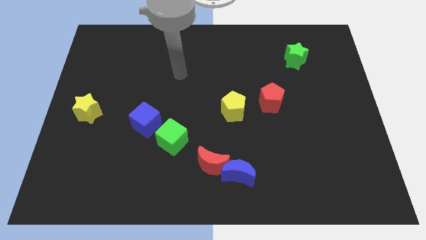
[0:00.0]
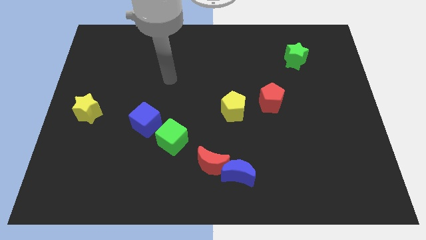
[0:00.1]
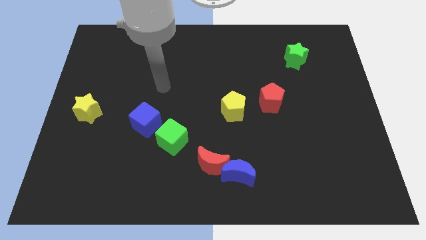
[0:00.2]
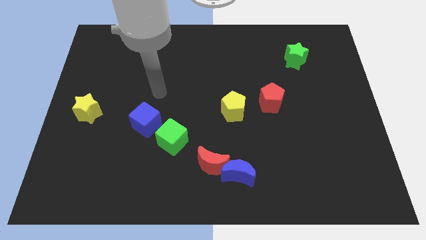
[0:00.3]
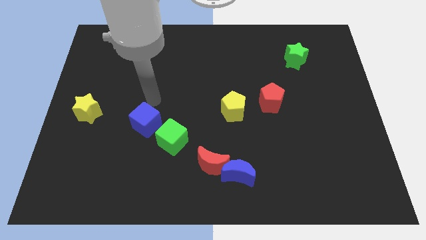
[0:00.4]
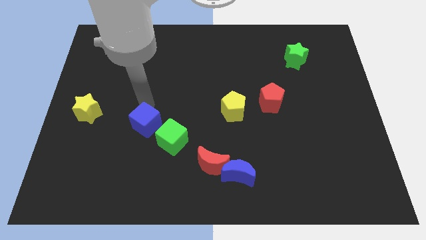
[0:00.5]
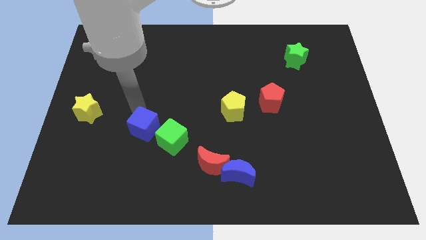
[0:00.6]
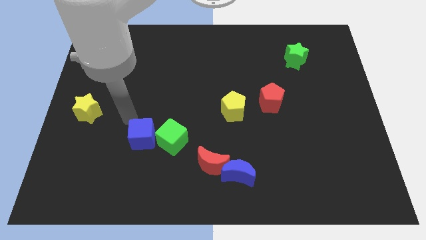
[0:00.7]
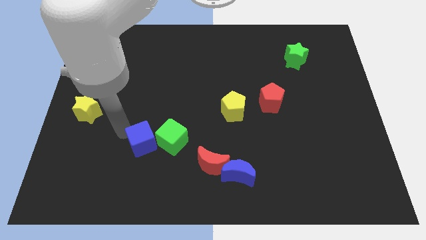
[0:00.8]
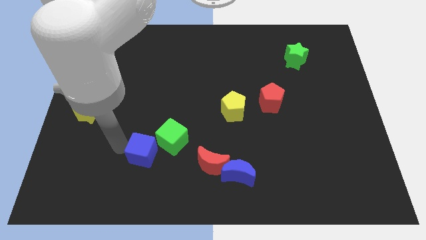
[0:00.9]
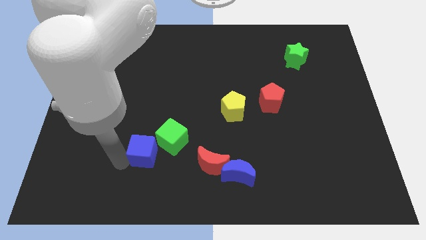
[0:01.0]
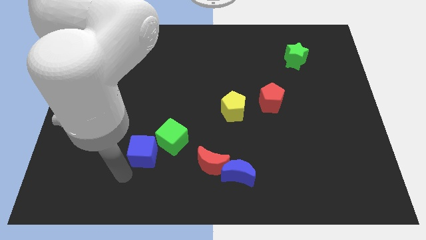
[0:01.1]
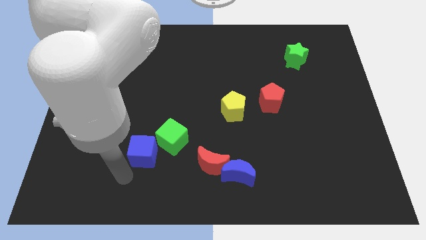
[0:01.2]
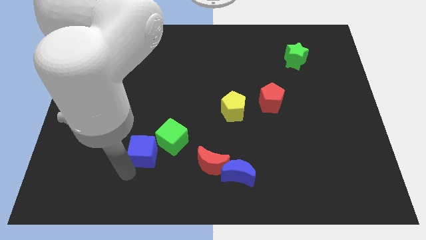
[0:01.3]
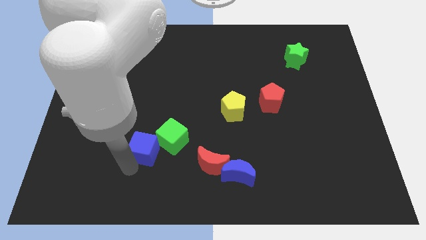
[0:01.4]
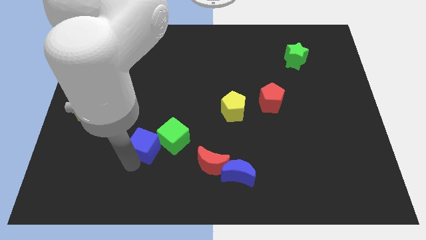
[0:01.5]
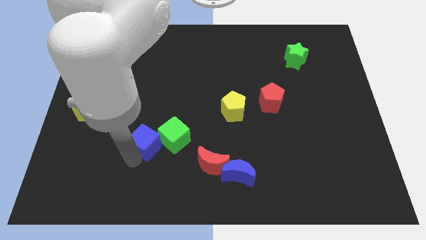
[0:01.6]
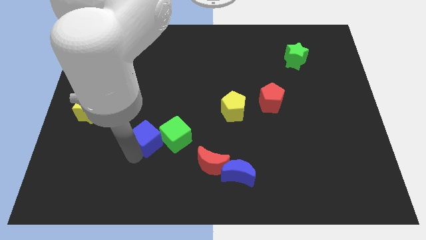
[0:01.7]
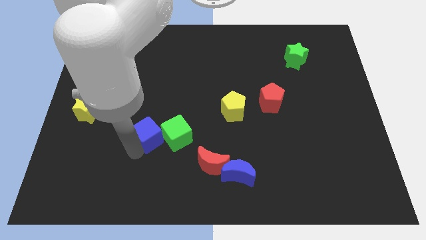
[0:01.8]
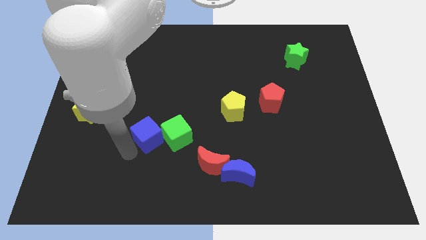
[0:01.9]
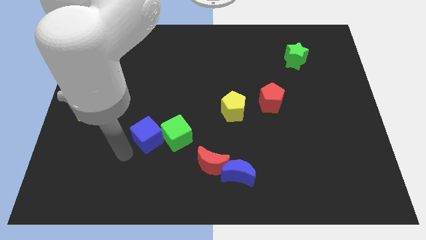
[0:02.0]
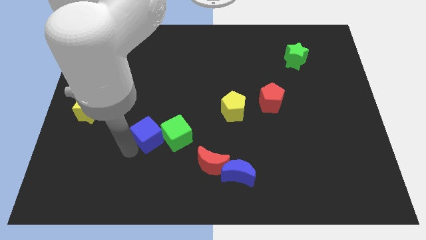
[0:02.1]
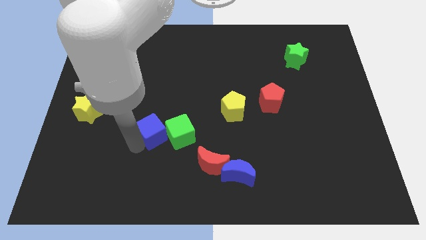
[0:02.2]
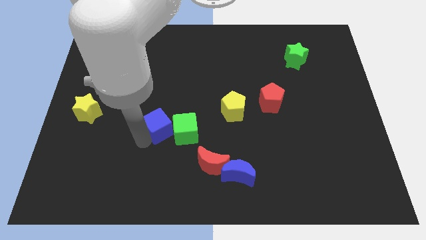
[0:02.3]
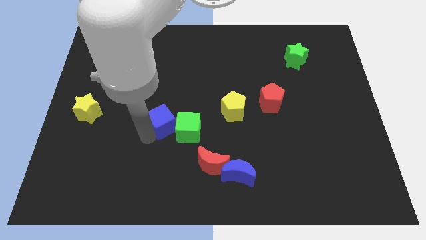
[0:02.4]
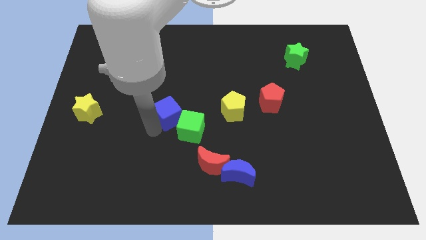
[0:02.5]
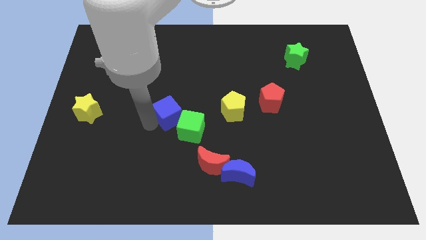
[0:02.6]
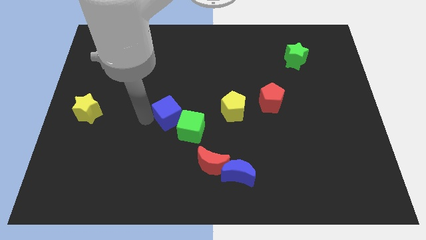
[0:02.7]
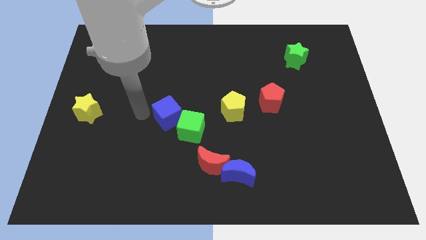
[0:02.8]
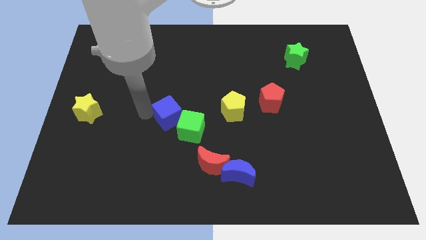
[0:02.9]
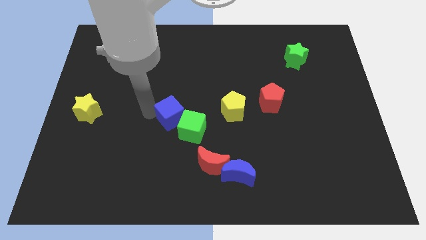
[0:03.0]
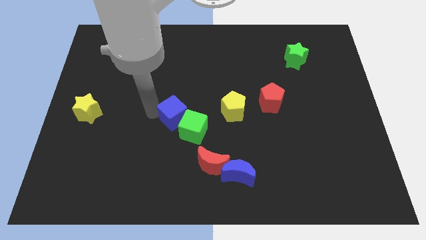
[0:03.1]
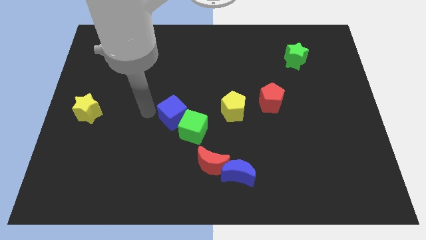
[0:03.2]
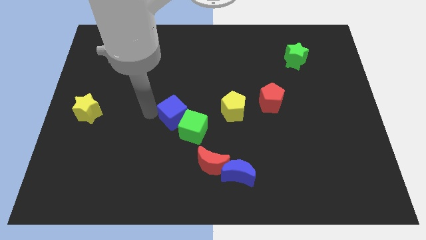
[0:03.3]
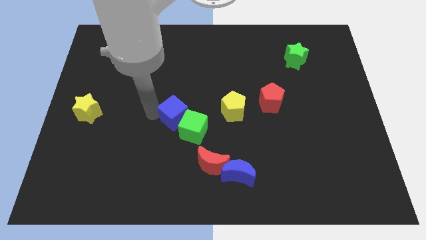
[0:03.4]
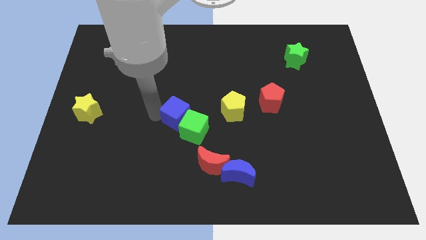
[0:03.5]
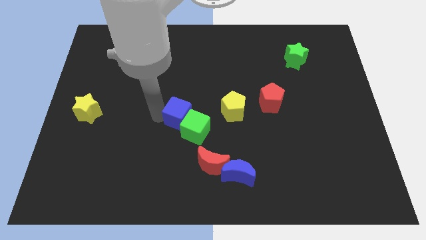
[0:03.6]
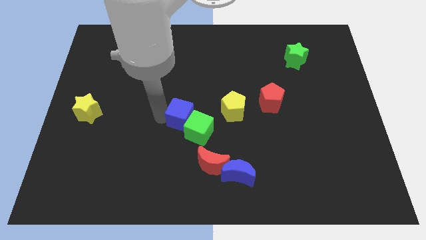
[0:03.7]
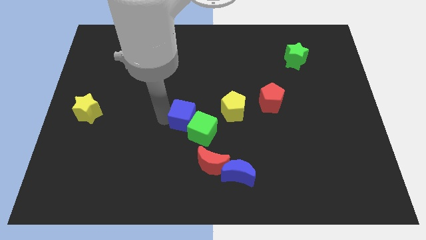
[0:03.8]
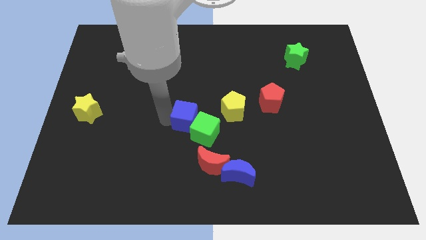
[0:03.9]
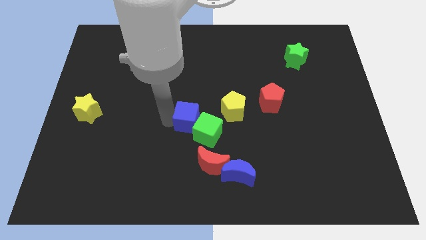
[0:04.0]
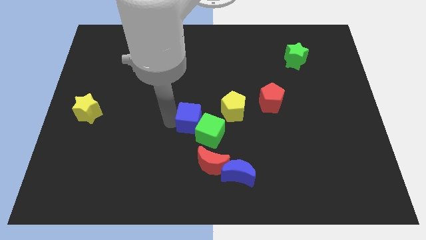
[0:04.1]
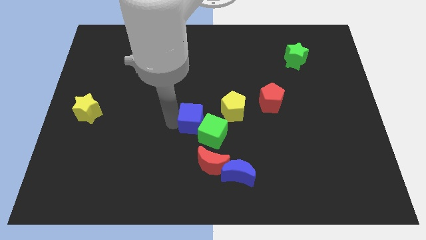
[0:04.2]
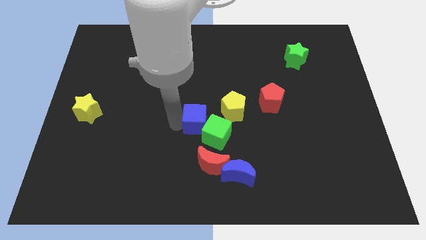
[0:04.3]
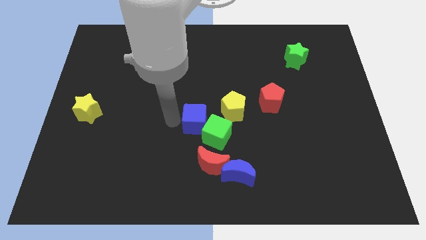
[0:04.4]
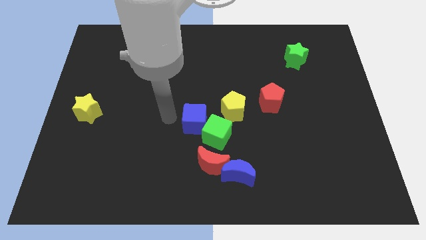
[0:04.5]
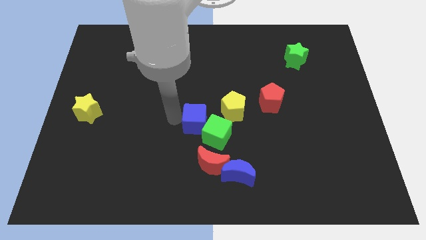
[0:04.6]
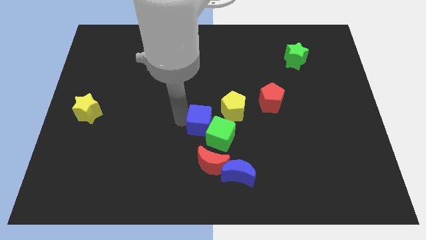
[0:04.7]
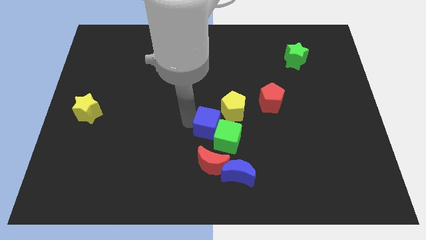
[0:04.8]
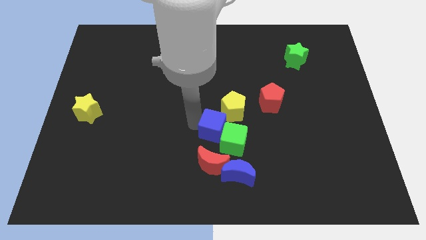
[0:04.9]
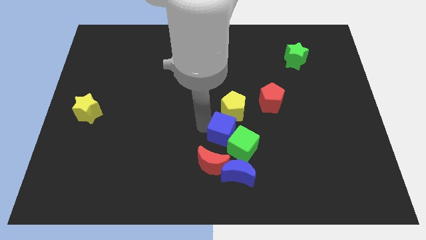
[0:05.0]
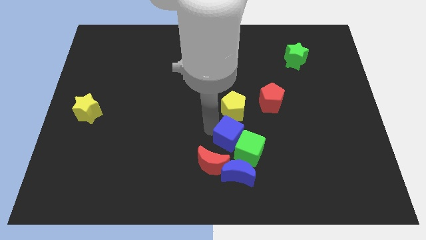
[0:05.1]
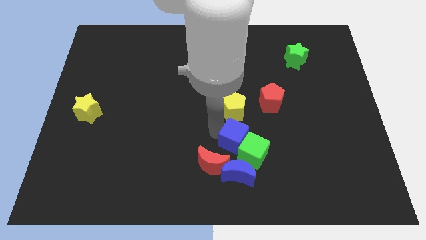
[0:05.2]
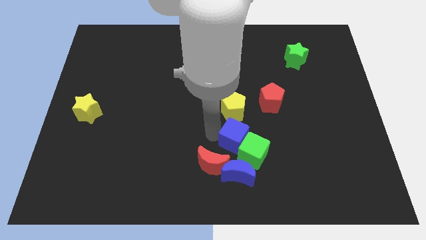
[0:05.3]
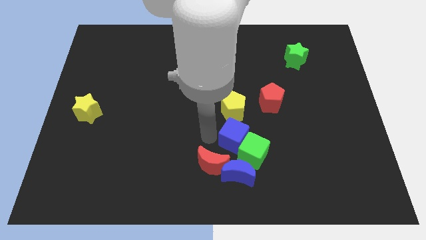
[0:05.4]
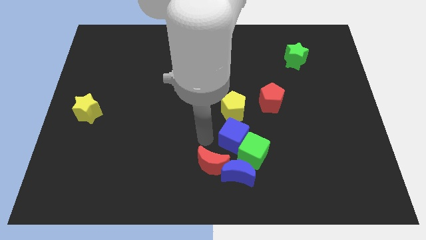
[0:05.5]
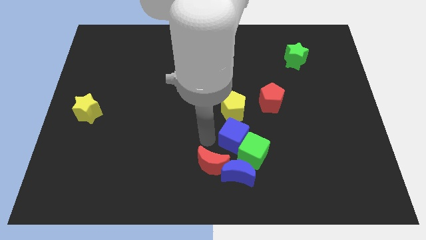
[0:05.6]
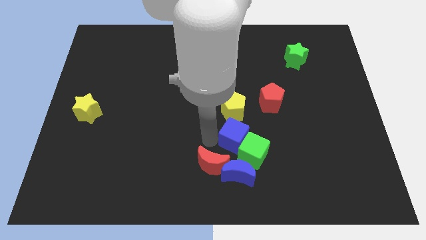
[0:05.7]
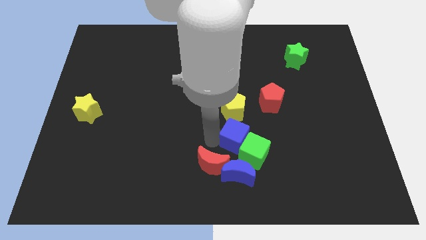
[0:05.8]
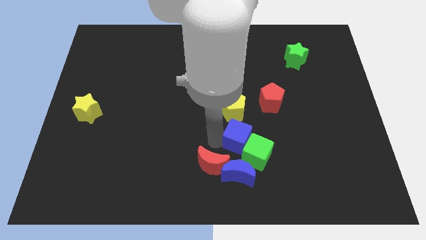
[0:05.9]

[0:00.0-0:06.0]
move the blue cube right

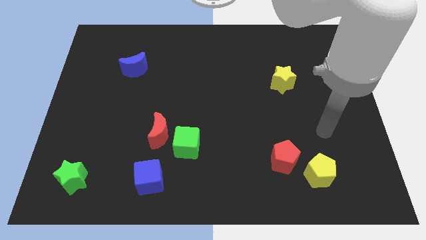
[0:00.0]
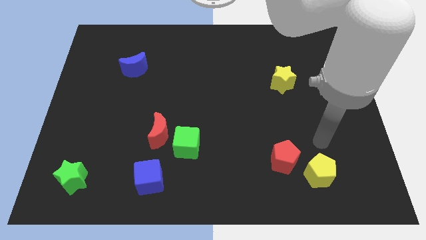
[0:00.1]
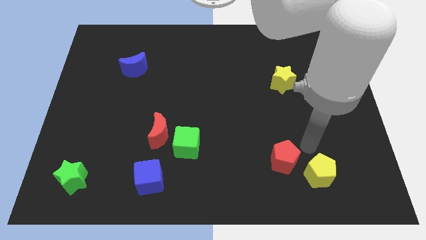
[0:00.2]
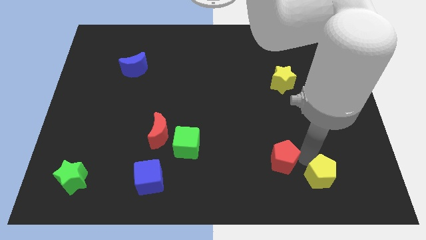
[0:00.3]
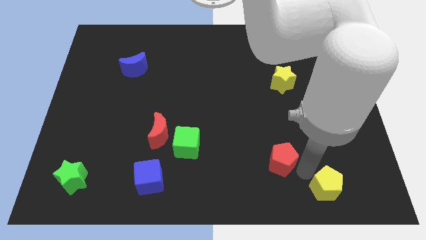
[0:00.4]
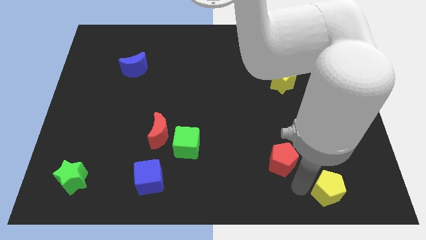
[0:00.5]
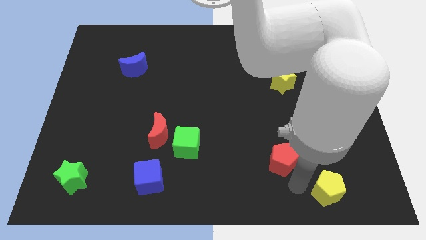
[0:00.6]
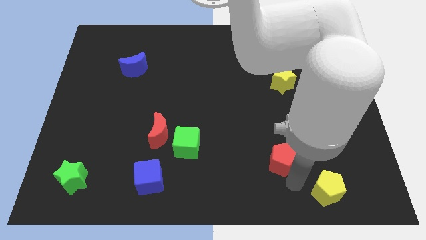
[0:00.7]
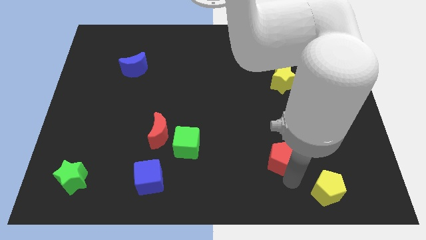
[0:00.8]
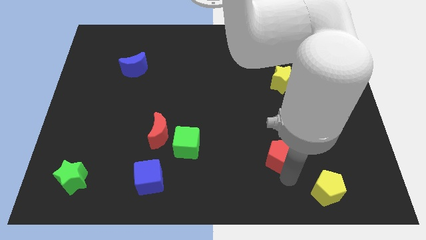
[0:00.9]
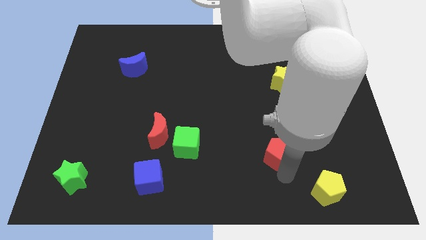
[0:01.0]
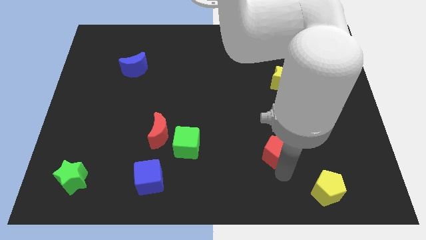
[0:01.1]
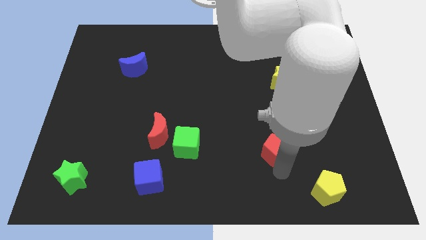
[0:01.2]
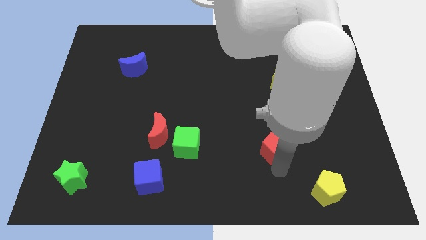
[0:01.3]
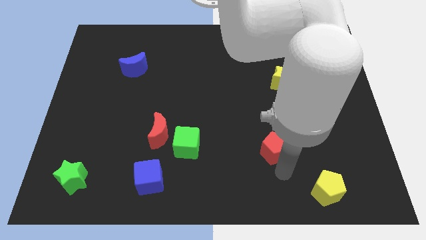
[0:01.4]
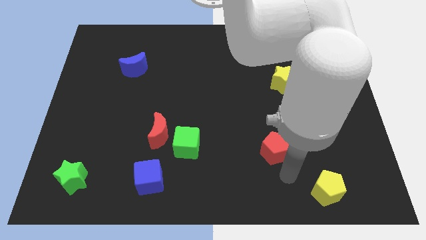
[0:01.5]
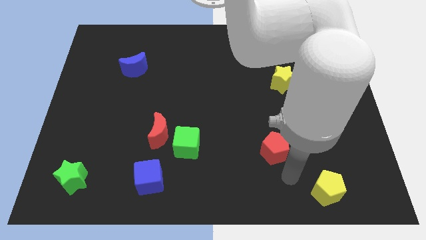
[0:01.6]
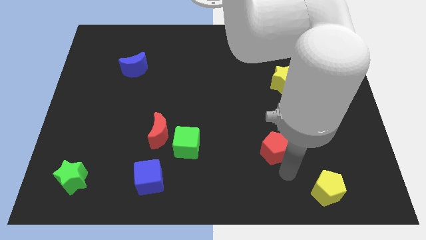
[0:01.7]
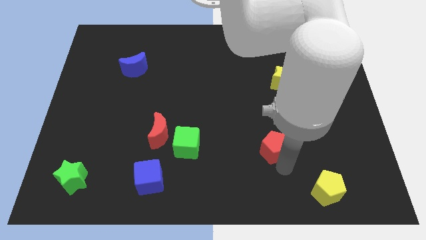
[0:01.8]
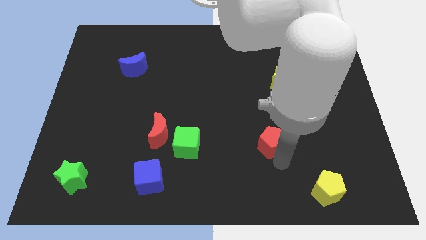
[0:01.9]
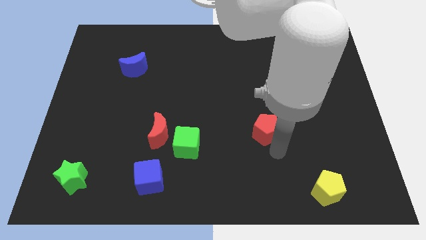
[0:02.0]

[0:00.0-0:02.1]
push the red pentagon upwards and then to the left somewhat
